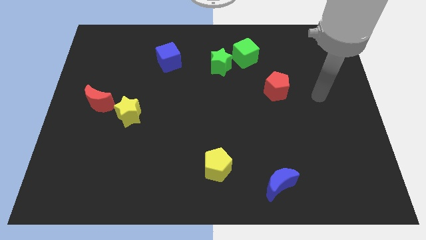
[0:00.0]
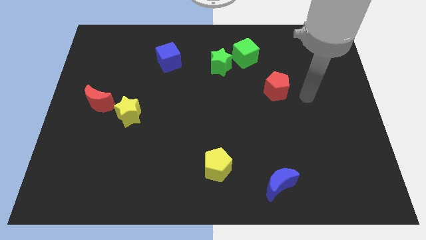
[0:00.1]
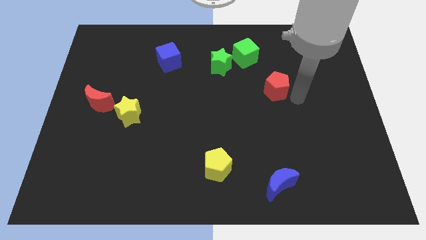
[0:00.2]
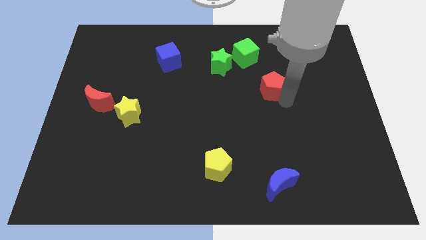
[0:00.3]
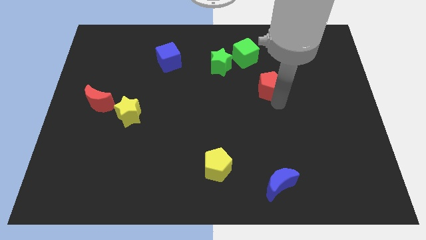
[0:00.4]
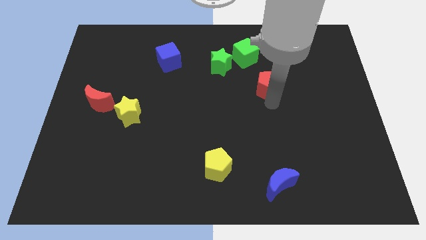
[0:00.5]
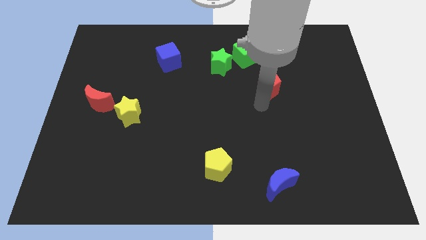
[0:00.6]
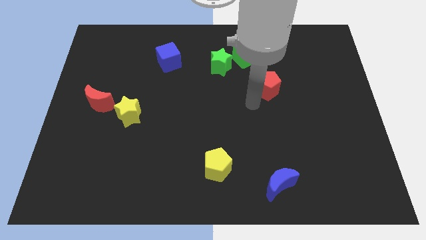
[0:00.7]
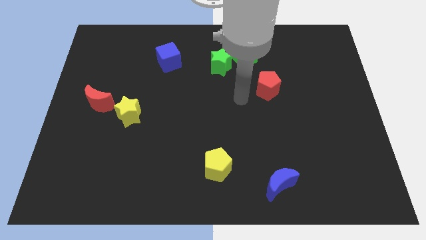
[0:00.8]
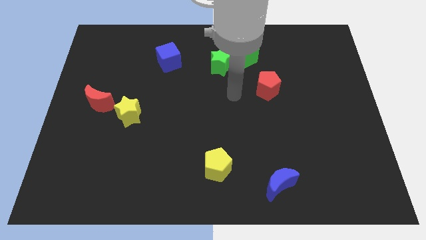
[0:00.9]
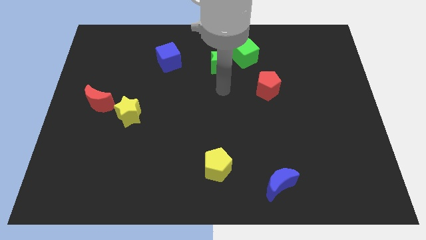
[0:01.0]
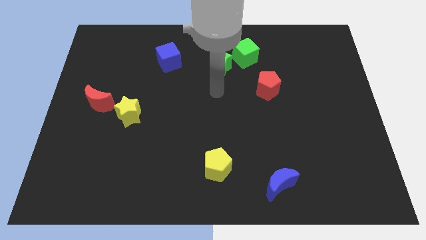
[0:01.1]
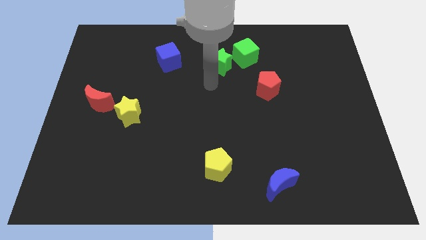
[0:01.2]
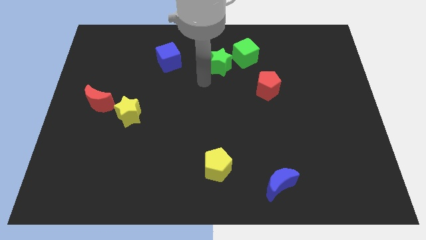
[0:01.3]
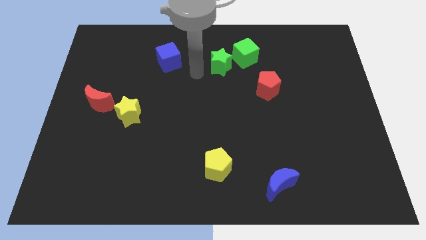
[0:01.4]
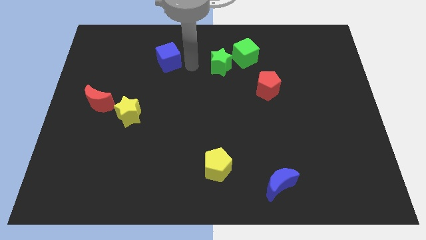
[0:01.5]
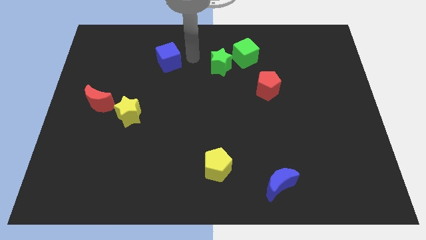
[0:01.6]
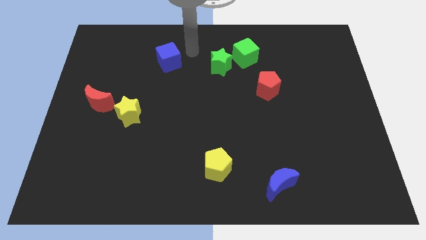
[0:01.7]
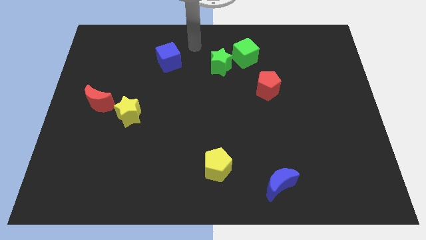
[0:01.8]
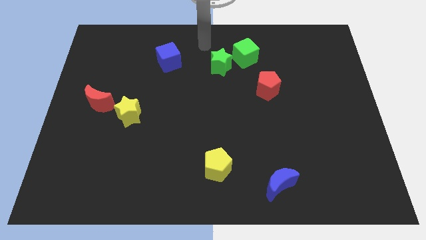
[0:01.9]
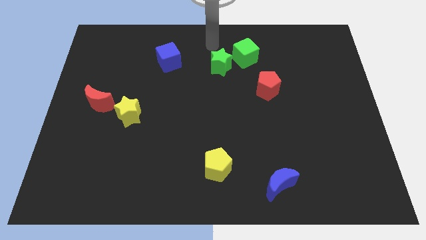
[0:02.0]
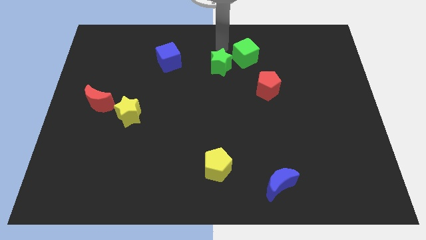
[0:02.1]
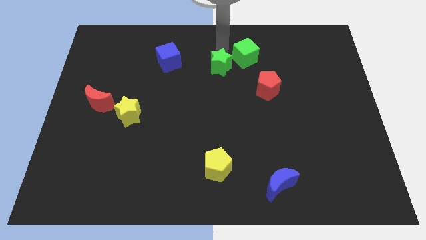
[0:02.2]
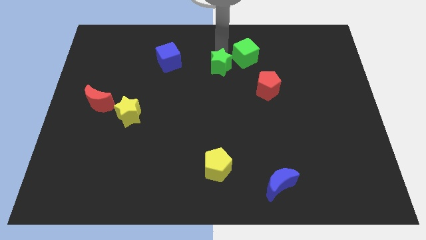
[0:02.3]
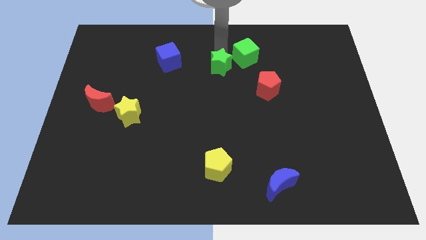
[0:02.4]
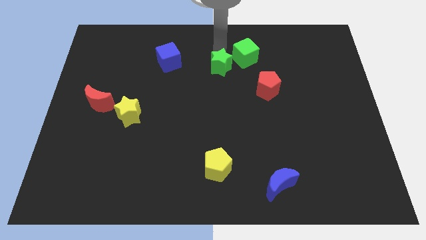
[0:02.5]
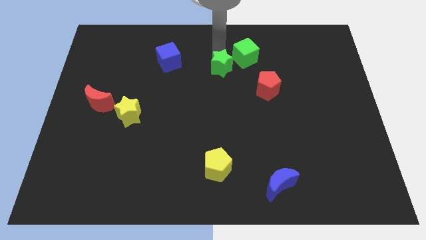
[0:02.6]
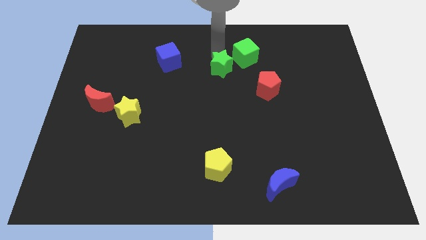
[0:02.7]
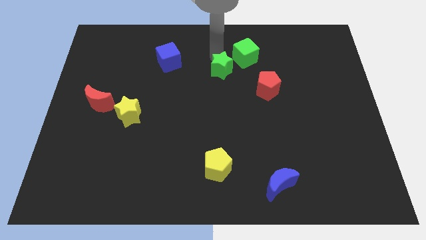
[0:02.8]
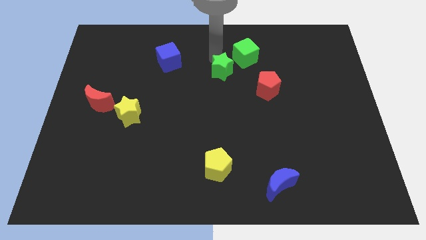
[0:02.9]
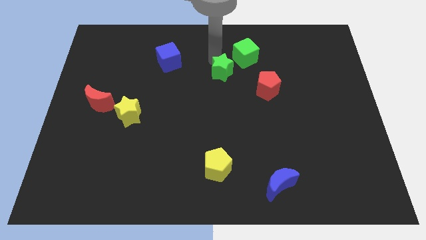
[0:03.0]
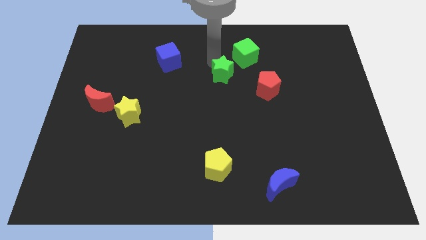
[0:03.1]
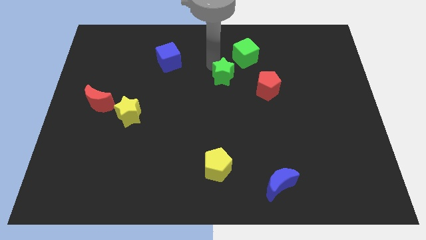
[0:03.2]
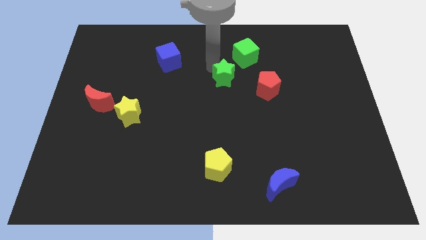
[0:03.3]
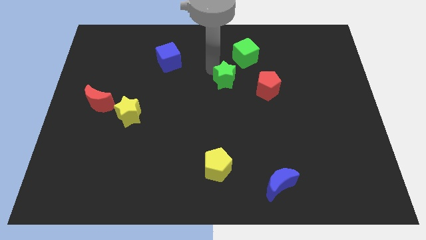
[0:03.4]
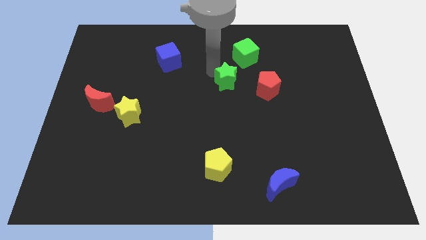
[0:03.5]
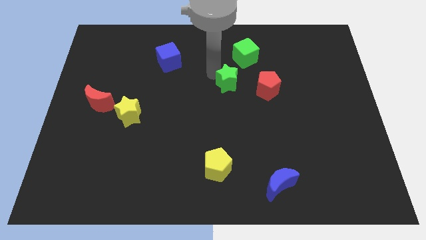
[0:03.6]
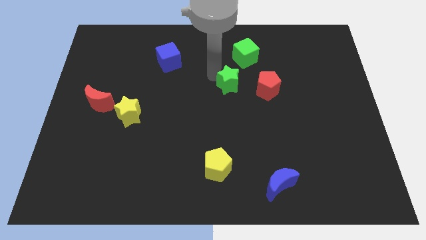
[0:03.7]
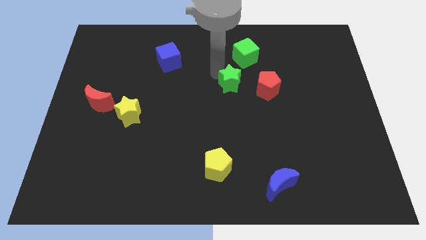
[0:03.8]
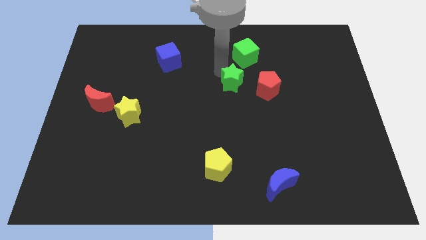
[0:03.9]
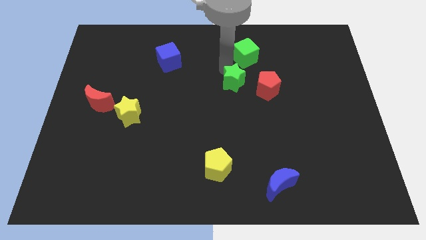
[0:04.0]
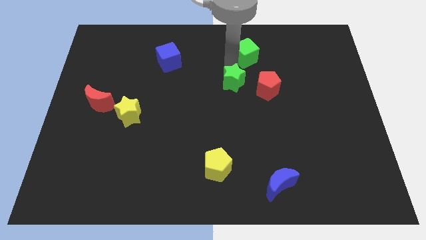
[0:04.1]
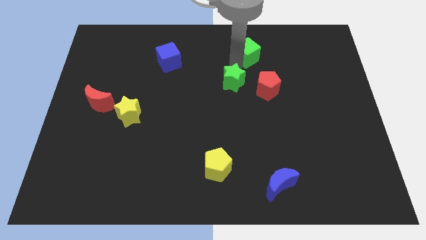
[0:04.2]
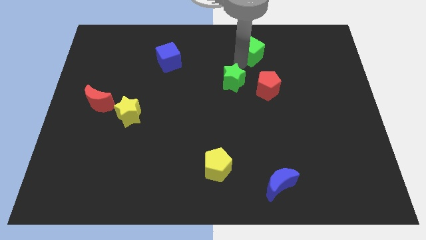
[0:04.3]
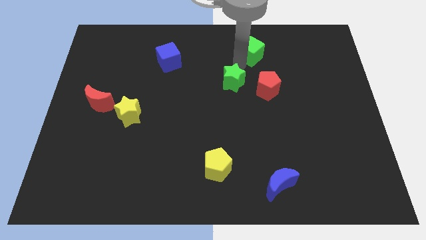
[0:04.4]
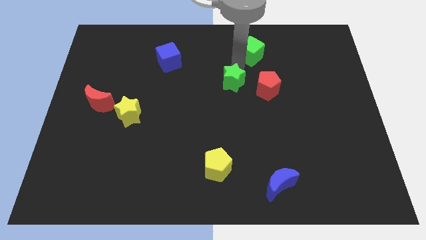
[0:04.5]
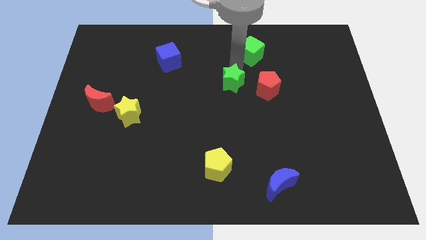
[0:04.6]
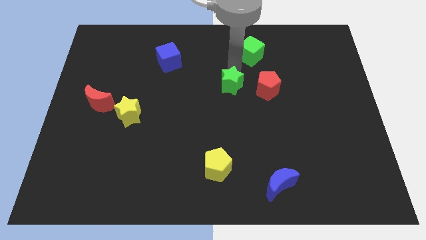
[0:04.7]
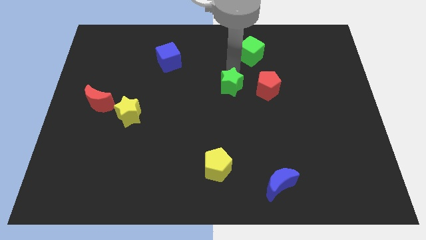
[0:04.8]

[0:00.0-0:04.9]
slide the green star down a bit

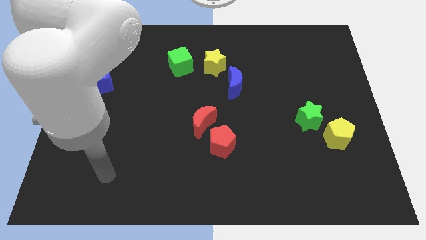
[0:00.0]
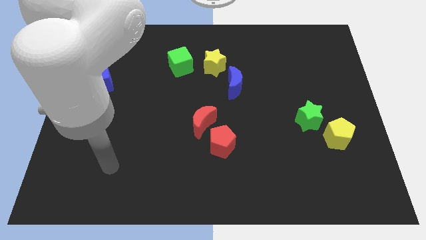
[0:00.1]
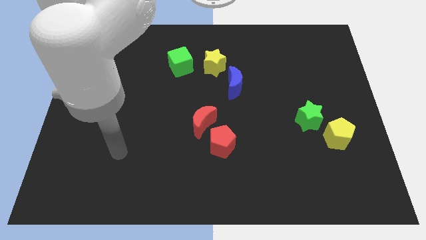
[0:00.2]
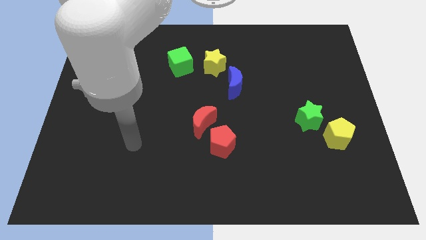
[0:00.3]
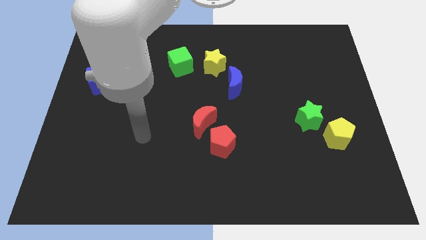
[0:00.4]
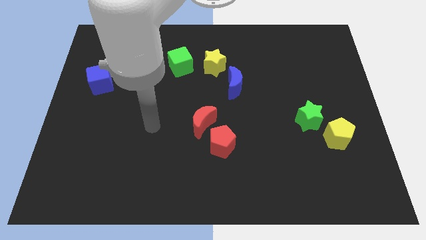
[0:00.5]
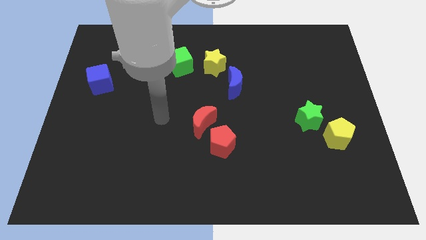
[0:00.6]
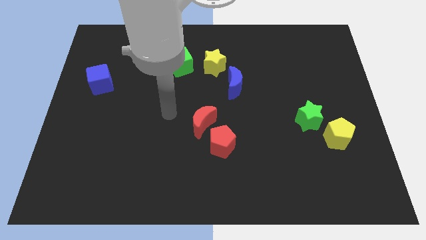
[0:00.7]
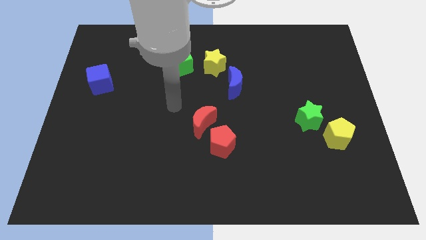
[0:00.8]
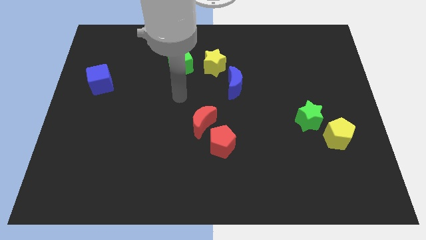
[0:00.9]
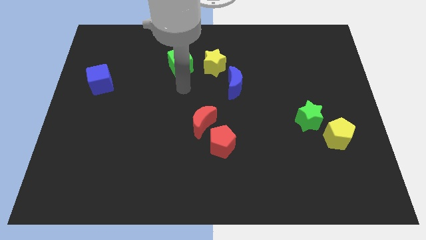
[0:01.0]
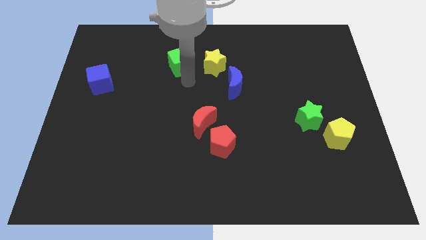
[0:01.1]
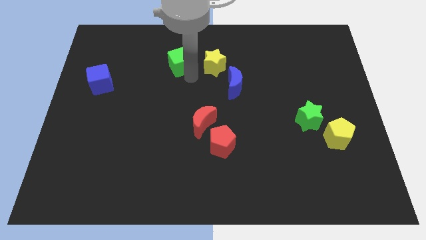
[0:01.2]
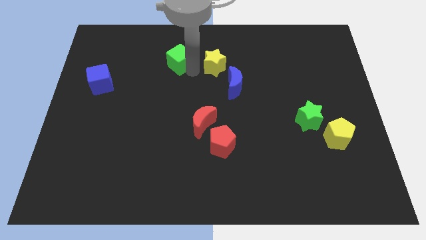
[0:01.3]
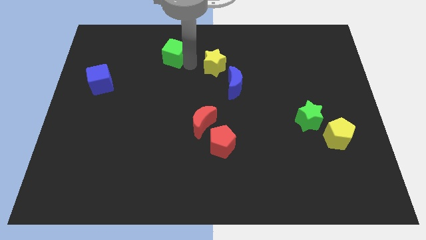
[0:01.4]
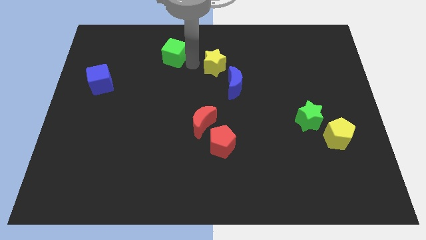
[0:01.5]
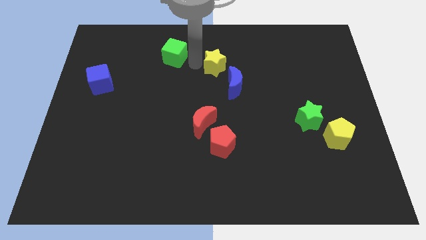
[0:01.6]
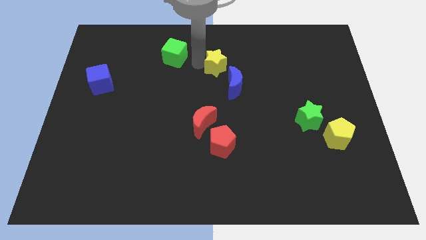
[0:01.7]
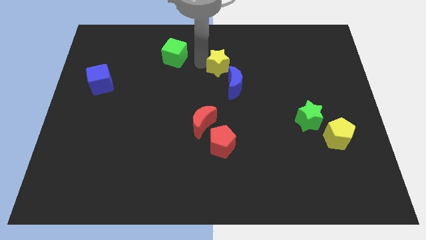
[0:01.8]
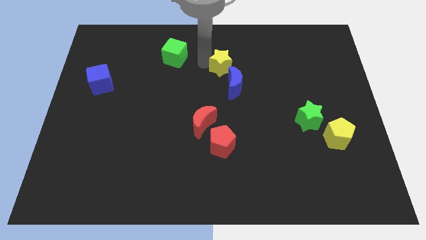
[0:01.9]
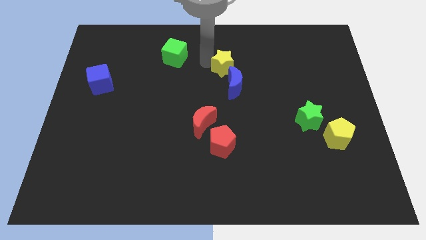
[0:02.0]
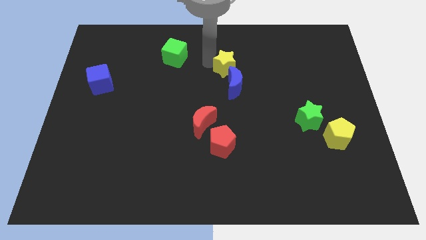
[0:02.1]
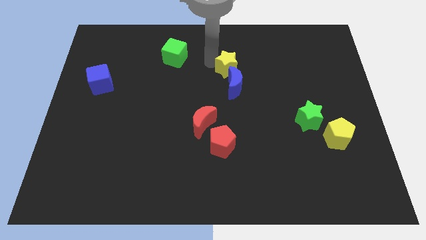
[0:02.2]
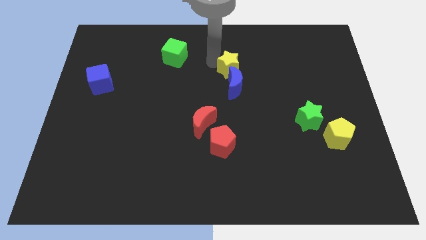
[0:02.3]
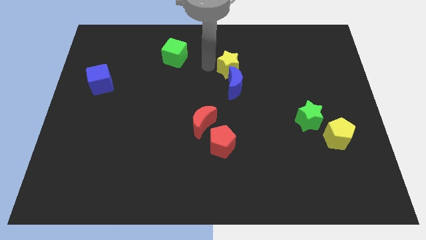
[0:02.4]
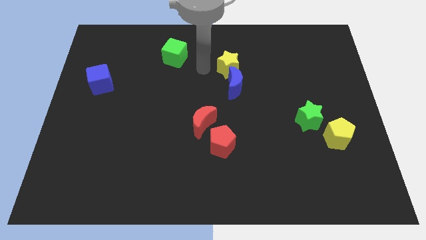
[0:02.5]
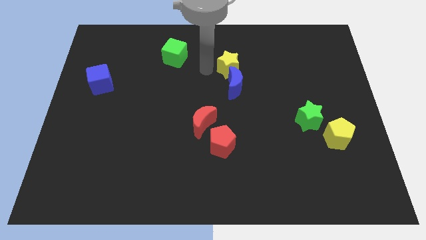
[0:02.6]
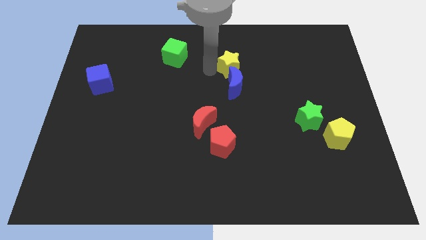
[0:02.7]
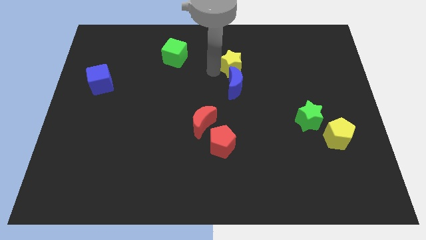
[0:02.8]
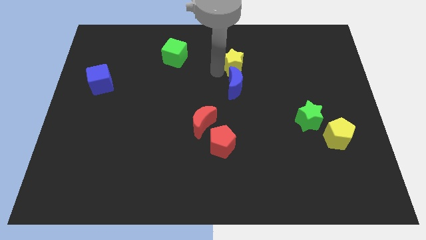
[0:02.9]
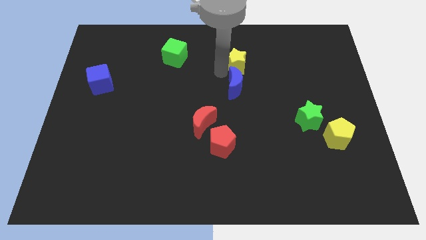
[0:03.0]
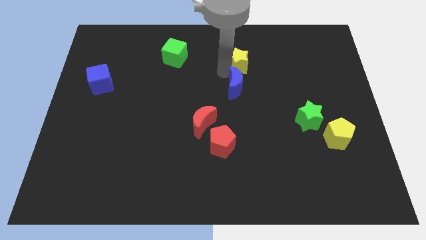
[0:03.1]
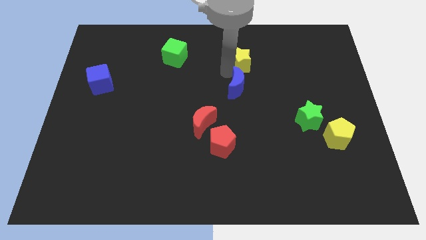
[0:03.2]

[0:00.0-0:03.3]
slightly slide the yellow star right
